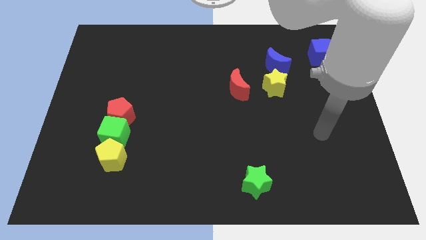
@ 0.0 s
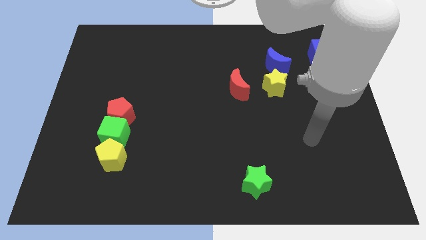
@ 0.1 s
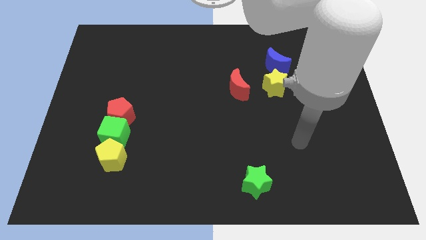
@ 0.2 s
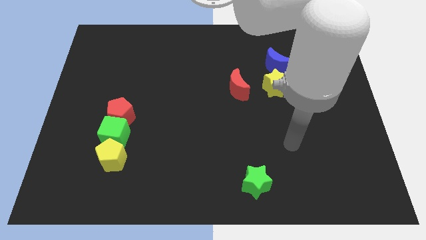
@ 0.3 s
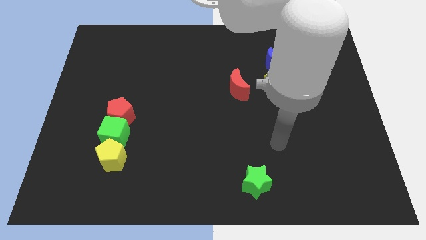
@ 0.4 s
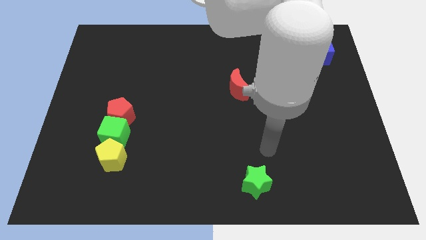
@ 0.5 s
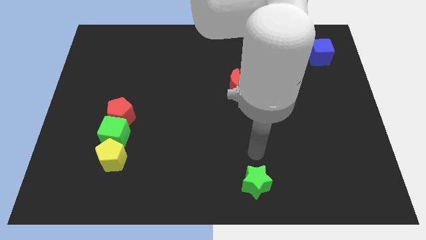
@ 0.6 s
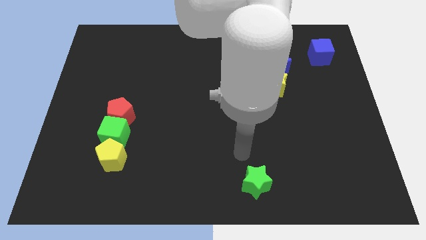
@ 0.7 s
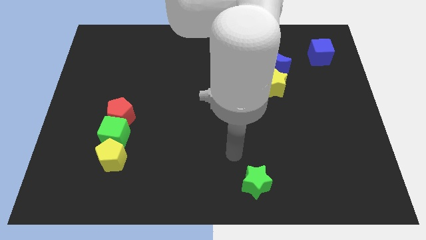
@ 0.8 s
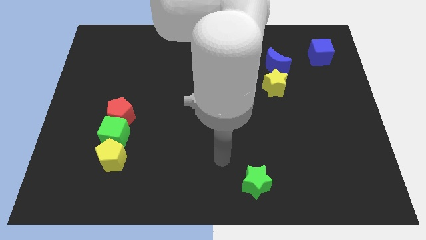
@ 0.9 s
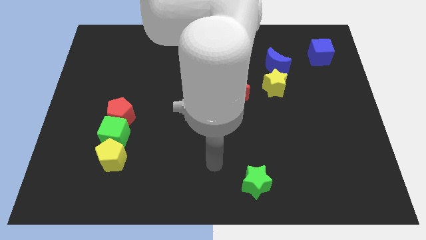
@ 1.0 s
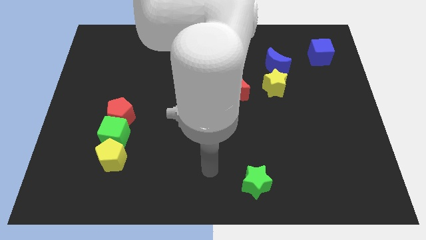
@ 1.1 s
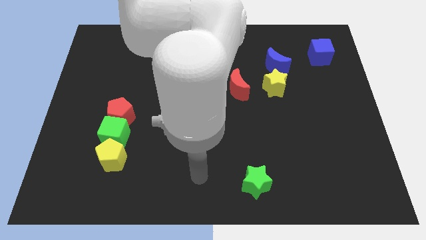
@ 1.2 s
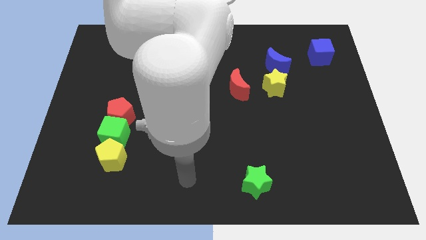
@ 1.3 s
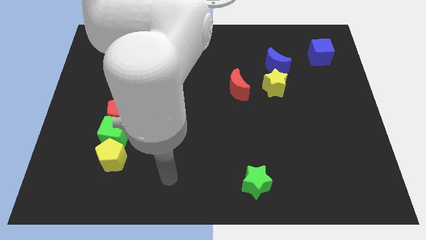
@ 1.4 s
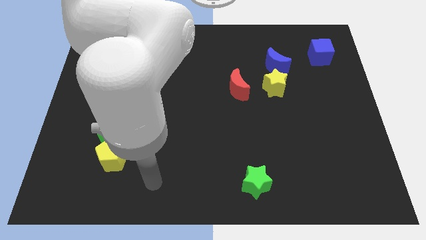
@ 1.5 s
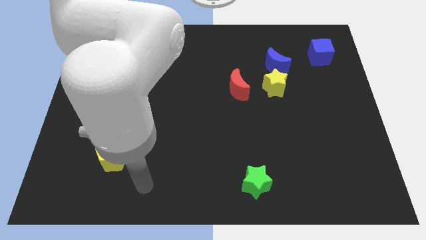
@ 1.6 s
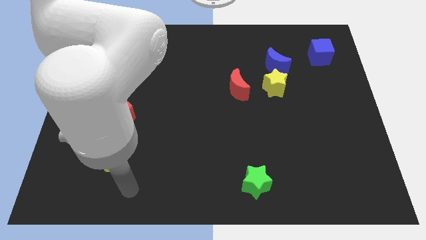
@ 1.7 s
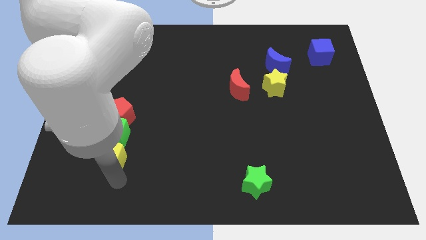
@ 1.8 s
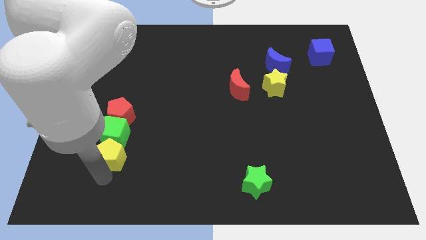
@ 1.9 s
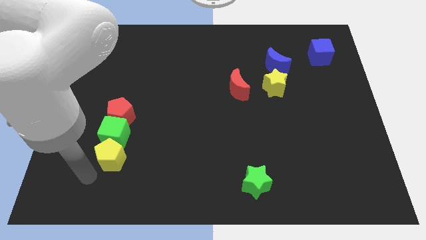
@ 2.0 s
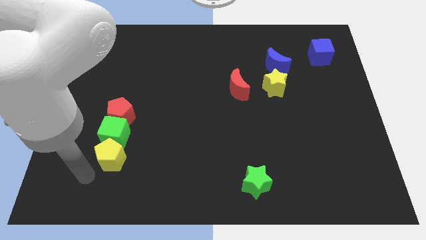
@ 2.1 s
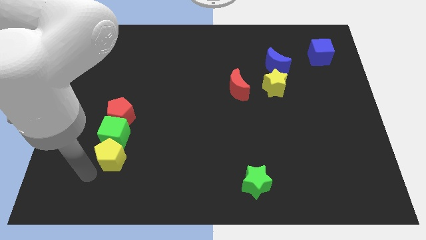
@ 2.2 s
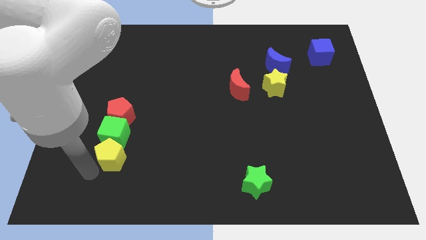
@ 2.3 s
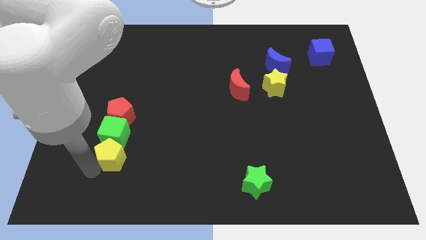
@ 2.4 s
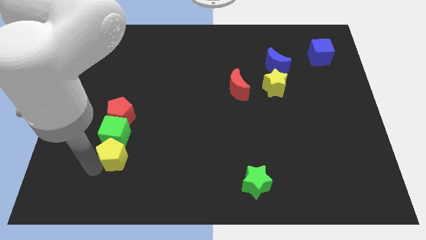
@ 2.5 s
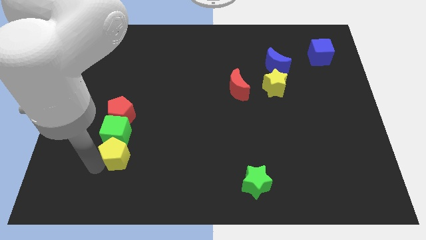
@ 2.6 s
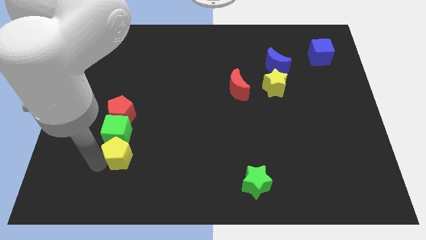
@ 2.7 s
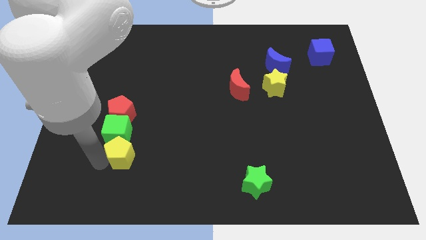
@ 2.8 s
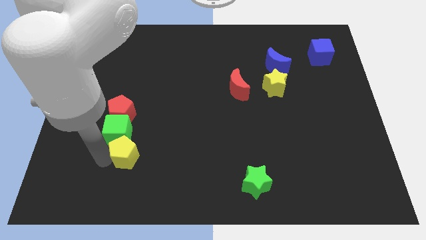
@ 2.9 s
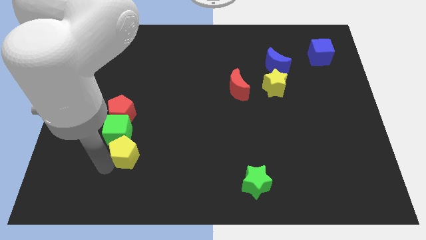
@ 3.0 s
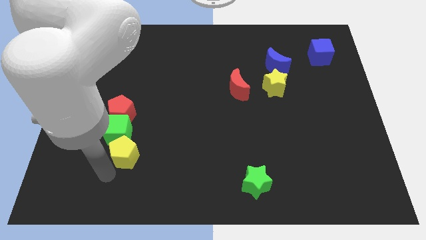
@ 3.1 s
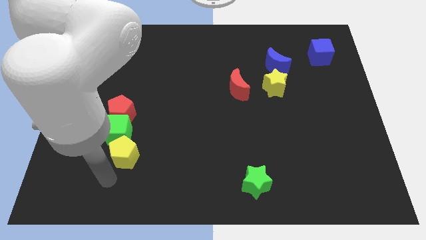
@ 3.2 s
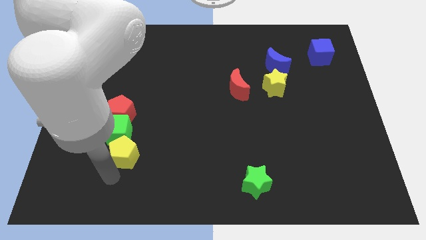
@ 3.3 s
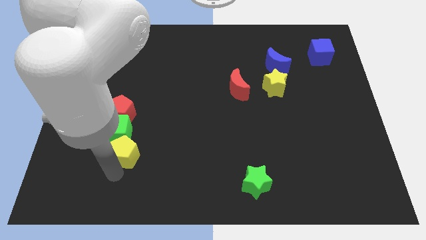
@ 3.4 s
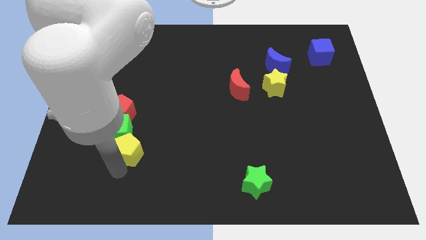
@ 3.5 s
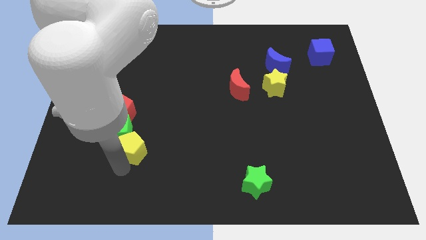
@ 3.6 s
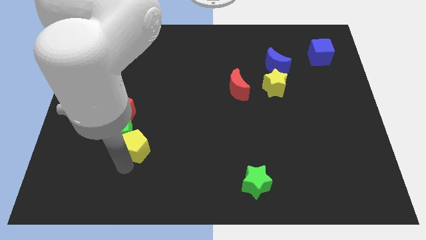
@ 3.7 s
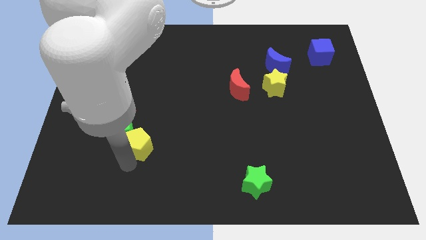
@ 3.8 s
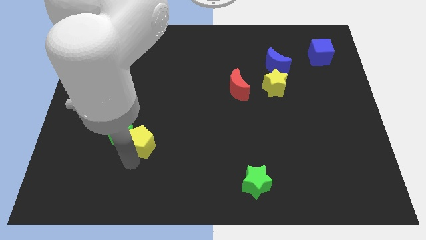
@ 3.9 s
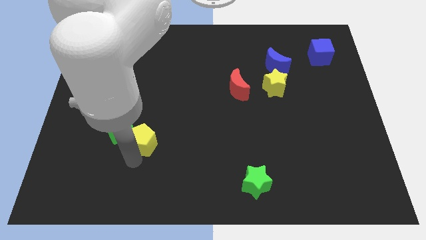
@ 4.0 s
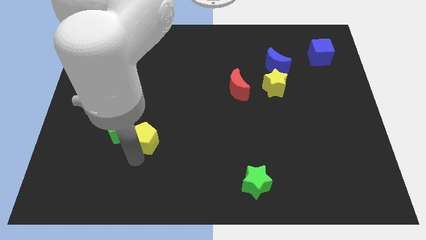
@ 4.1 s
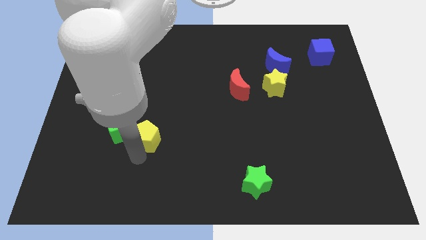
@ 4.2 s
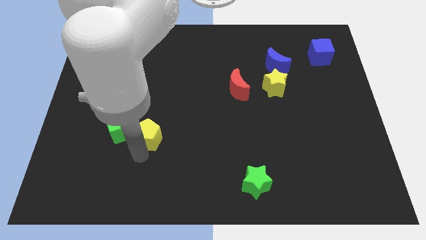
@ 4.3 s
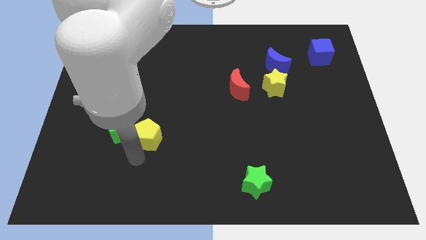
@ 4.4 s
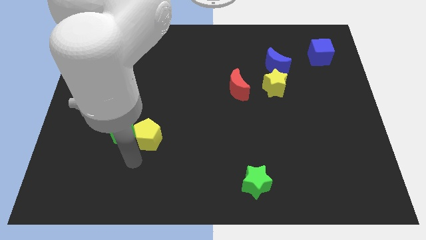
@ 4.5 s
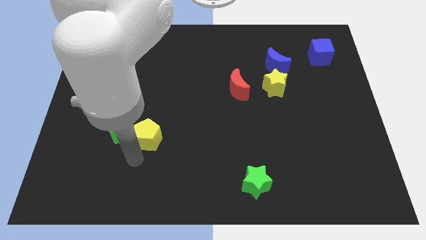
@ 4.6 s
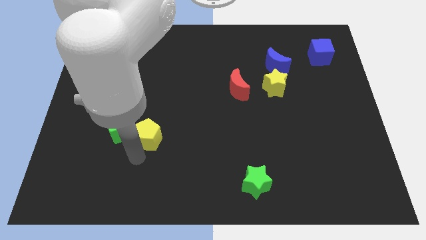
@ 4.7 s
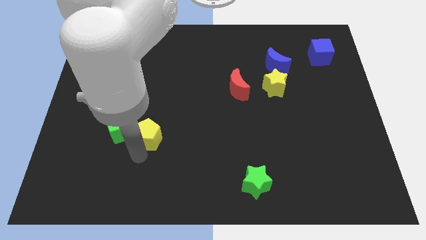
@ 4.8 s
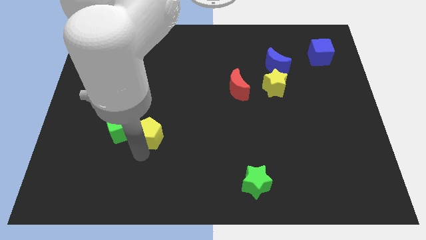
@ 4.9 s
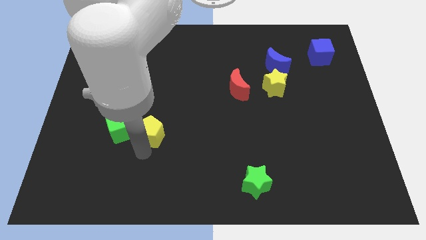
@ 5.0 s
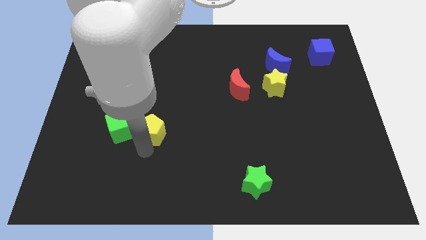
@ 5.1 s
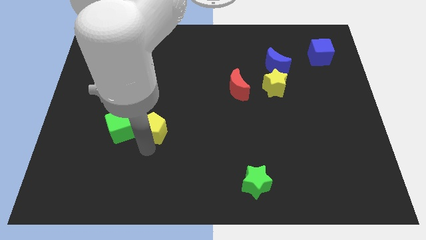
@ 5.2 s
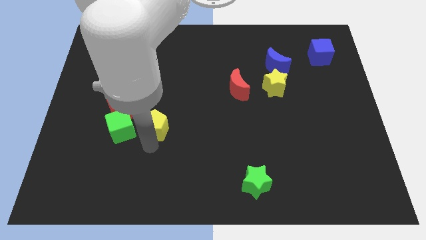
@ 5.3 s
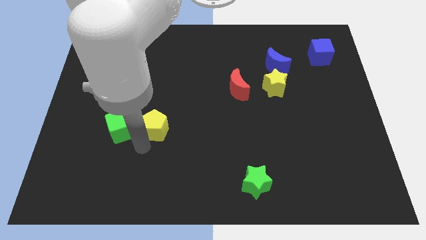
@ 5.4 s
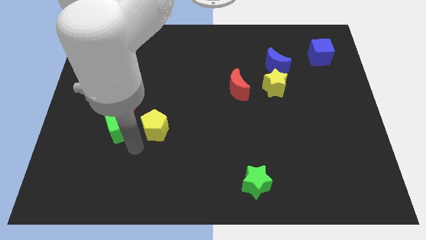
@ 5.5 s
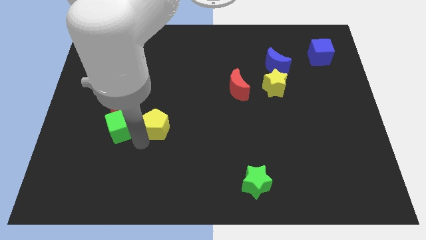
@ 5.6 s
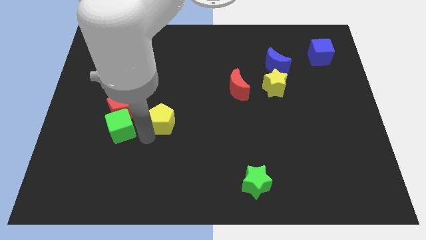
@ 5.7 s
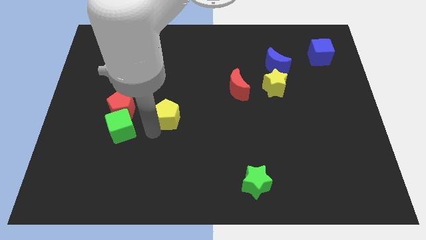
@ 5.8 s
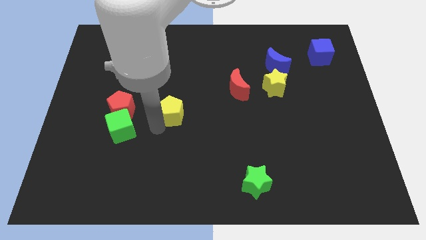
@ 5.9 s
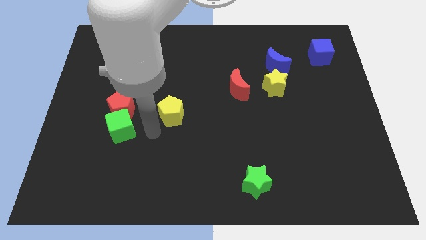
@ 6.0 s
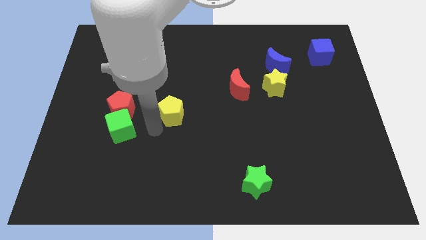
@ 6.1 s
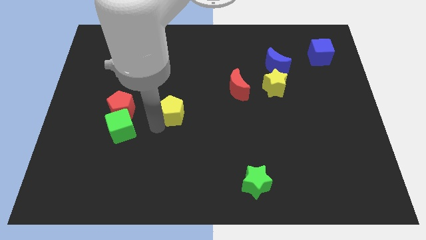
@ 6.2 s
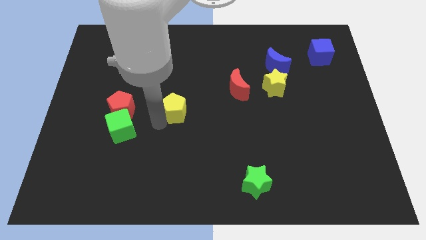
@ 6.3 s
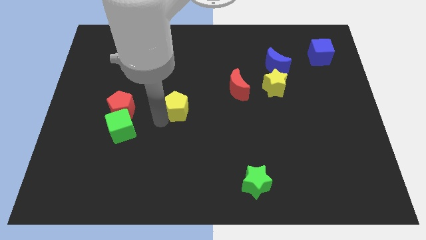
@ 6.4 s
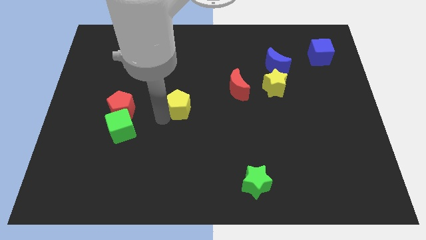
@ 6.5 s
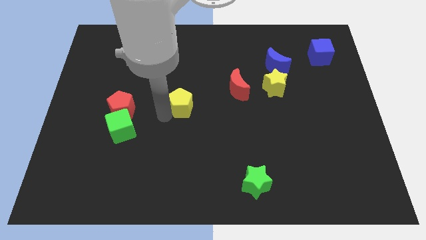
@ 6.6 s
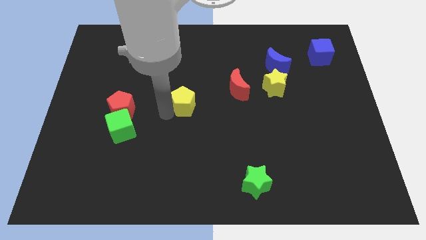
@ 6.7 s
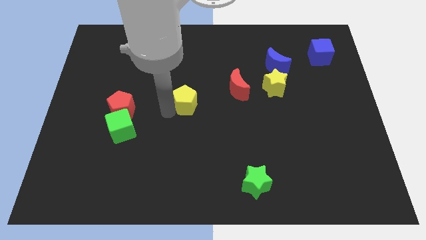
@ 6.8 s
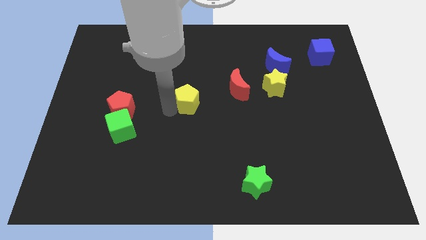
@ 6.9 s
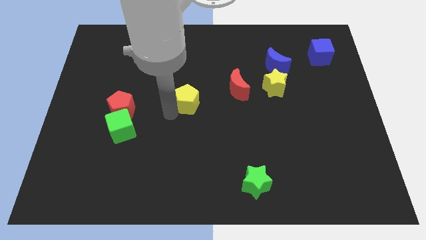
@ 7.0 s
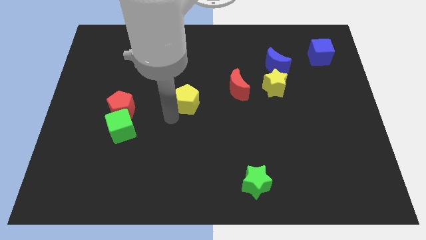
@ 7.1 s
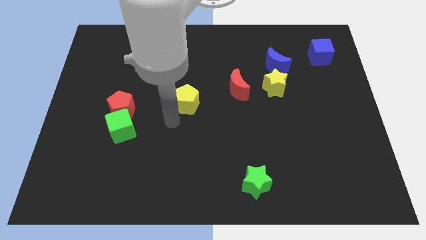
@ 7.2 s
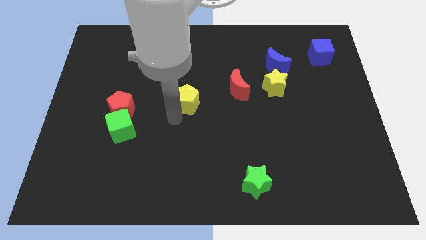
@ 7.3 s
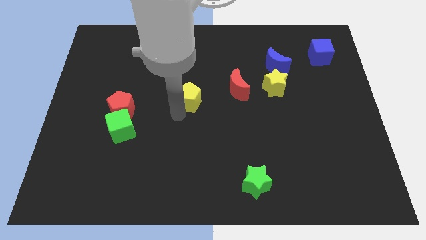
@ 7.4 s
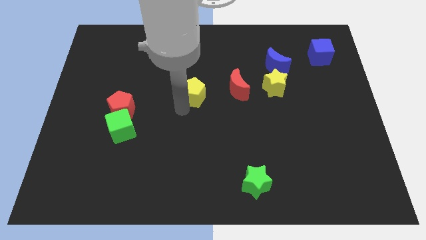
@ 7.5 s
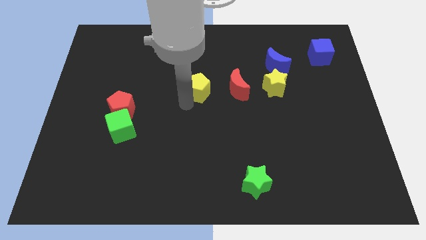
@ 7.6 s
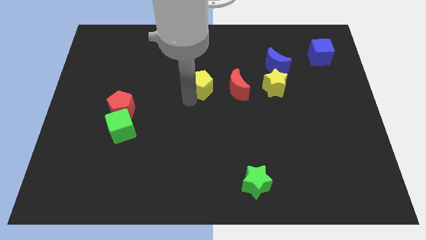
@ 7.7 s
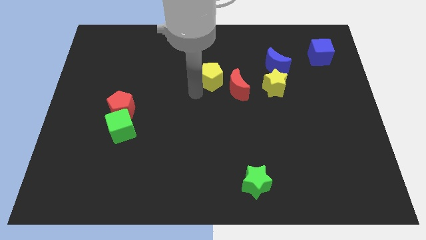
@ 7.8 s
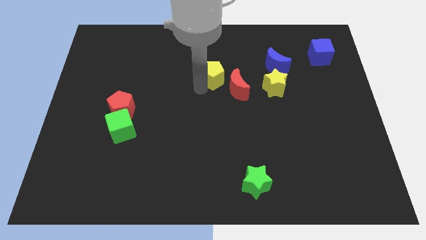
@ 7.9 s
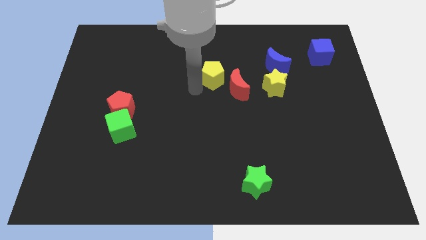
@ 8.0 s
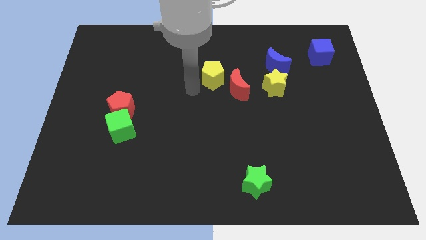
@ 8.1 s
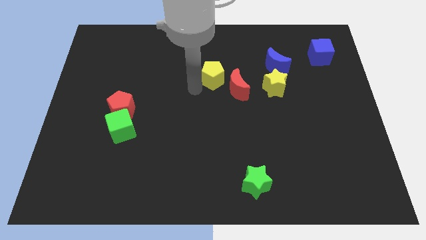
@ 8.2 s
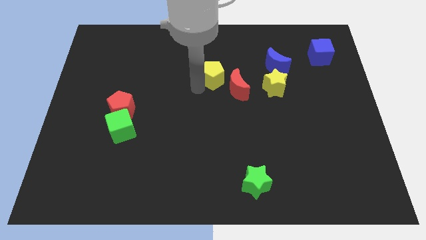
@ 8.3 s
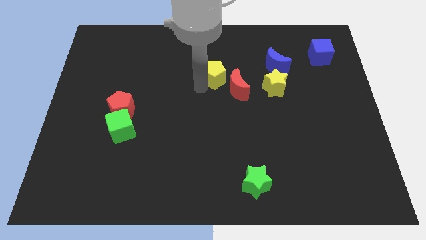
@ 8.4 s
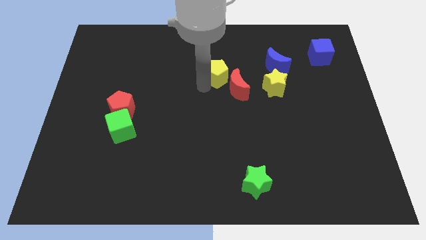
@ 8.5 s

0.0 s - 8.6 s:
push the yellow pentagon to the left side of the blue moon
